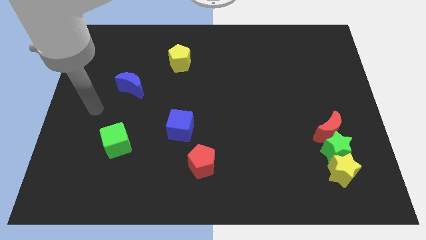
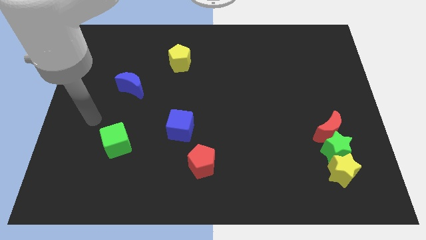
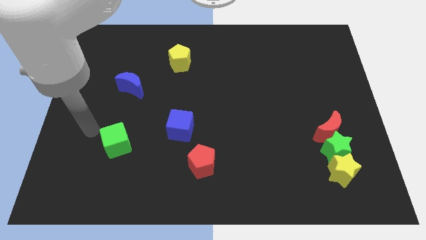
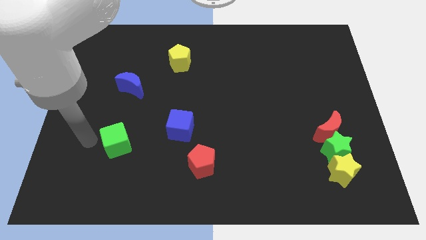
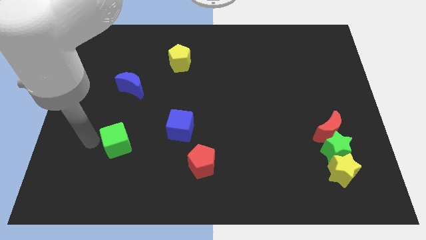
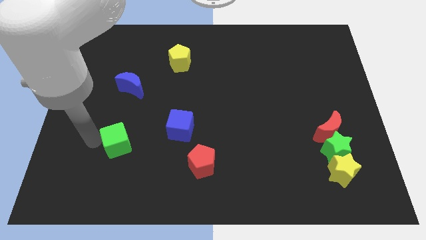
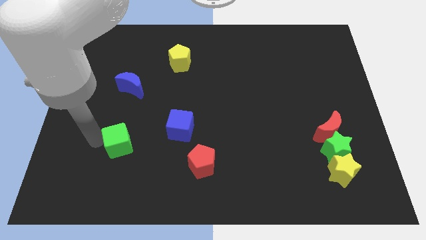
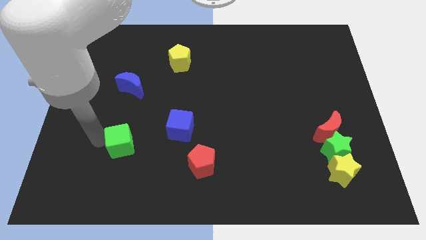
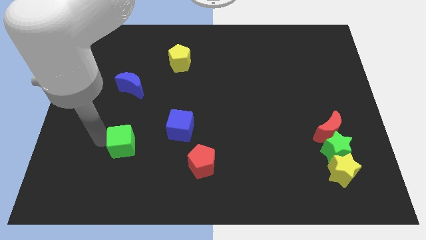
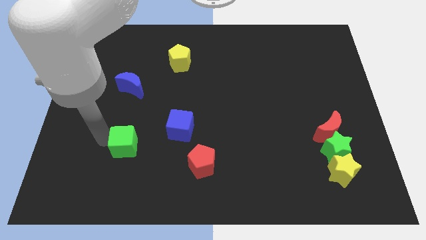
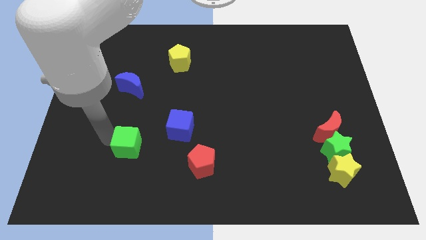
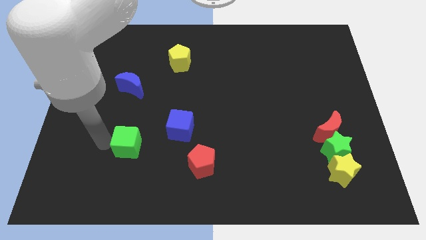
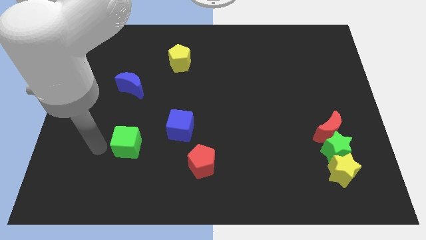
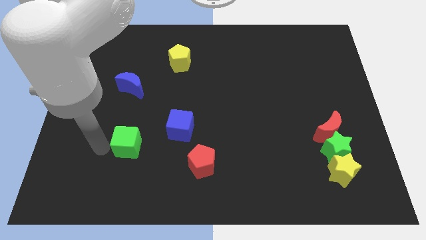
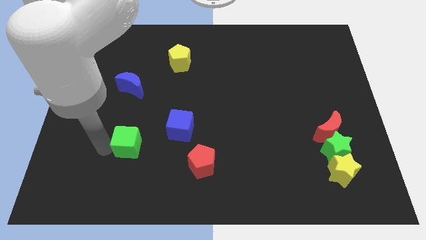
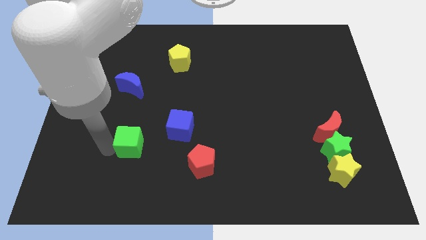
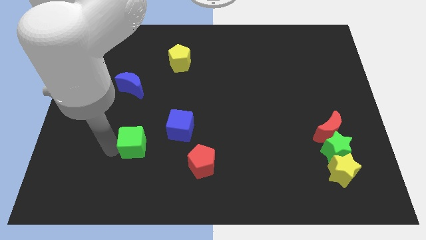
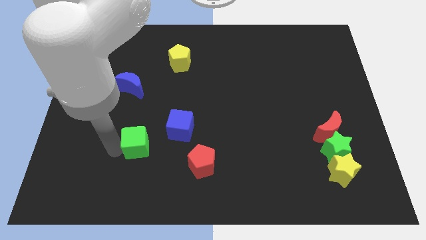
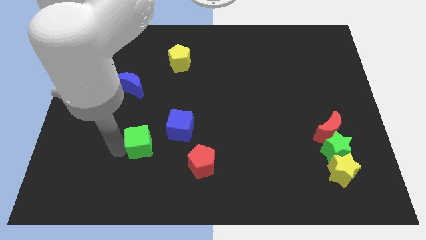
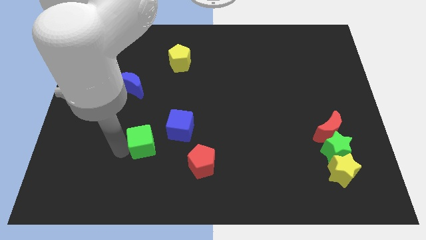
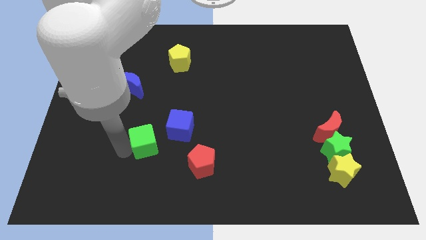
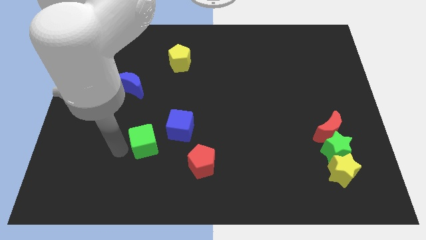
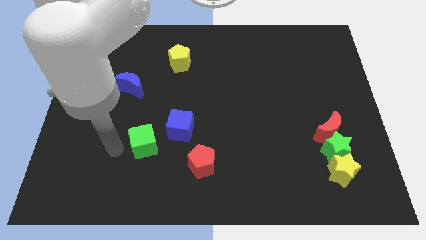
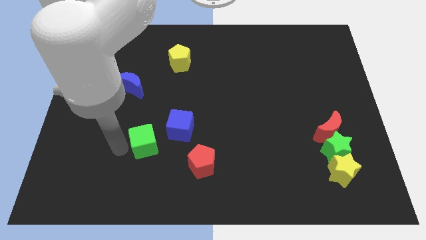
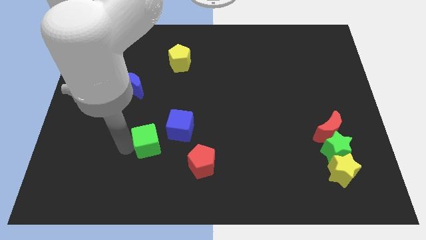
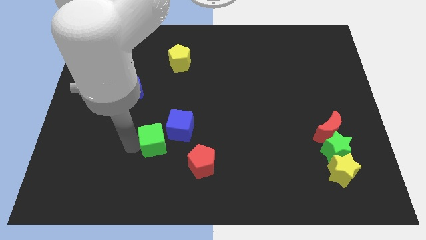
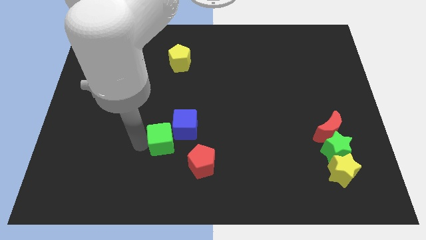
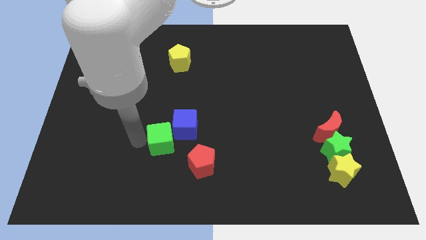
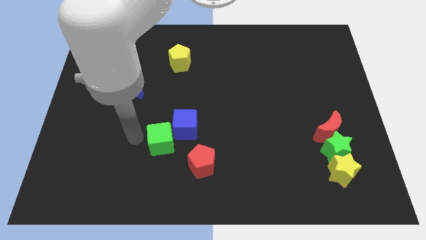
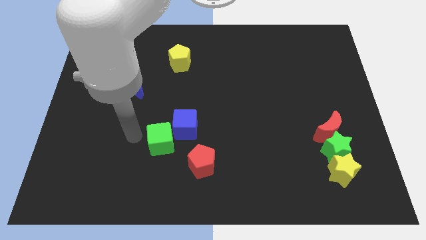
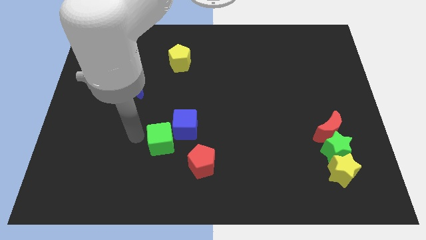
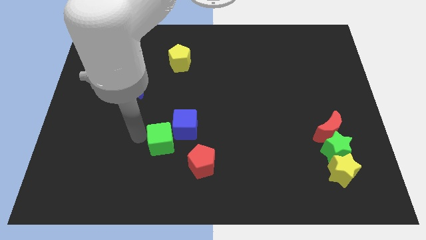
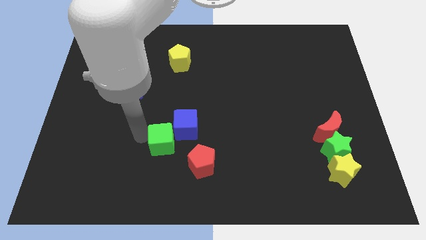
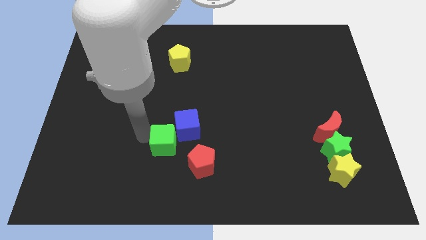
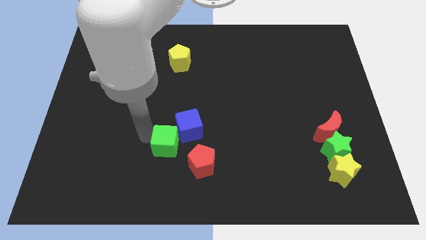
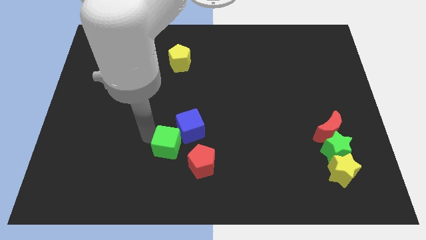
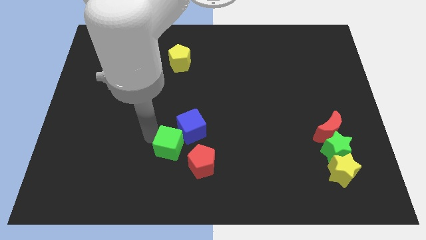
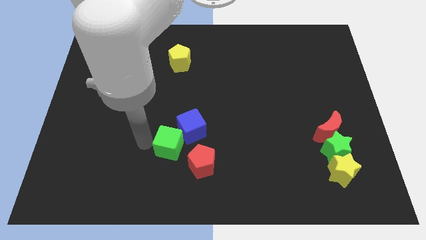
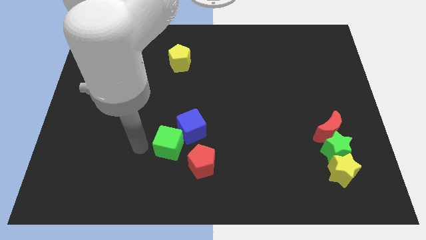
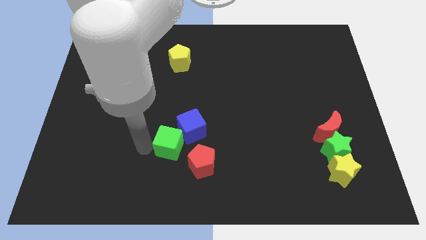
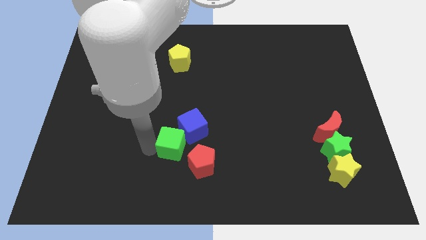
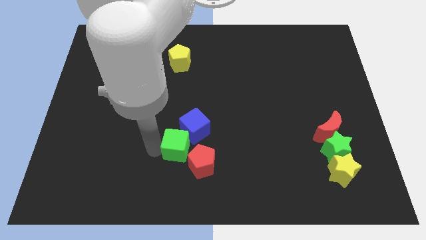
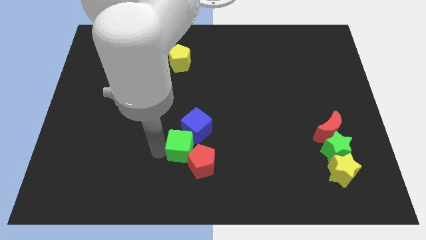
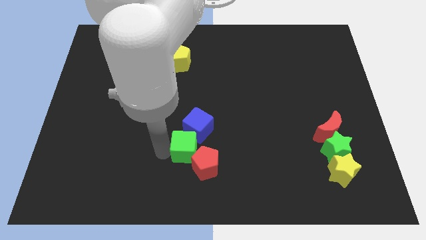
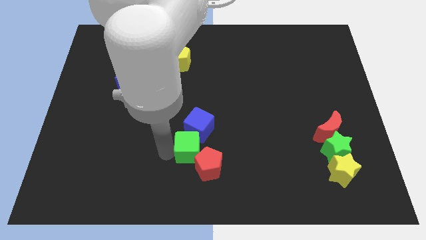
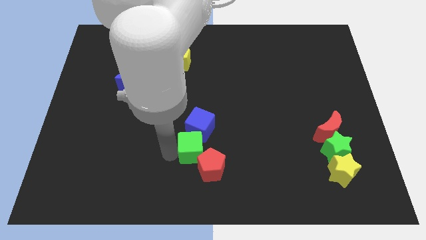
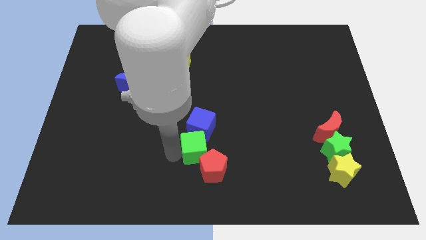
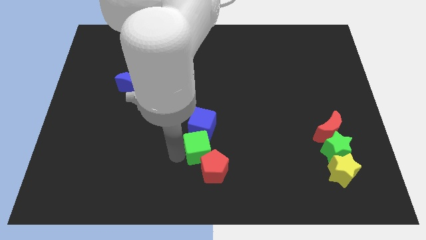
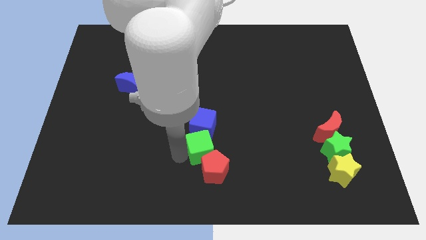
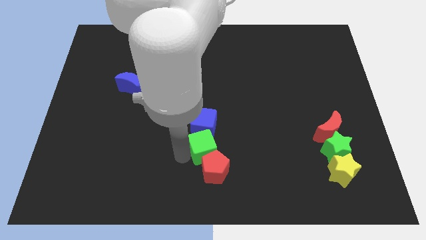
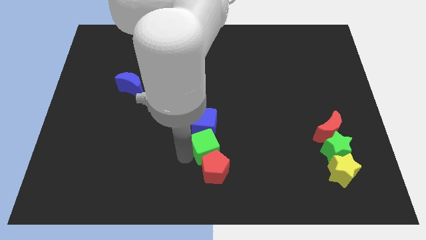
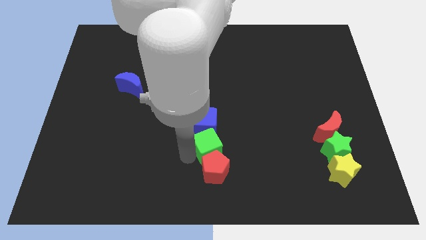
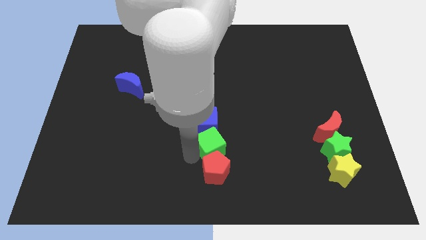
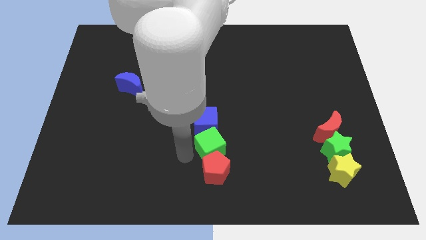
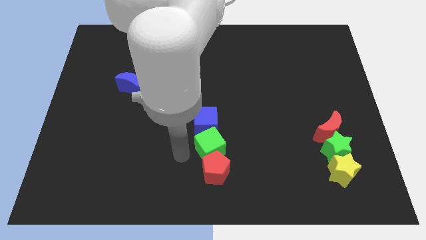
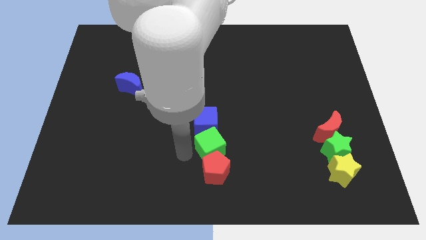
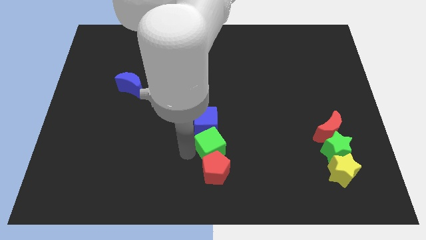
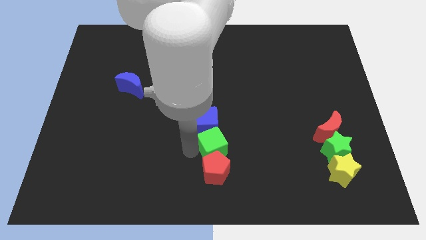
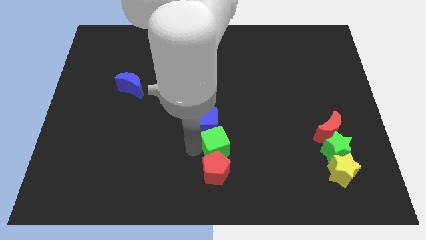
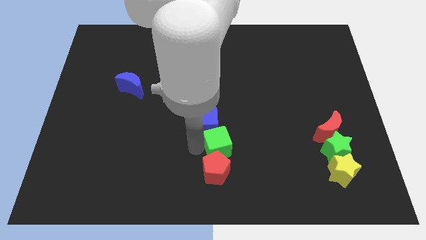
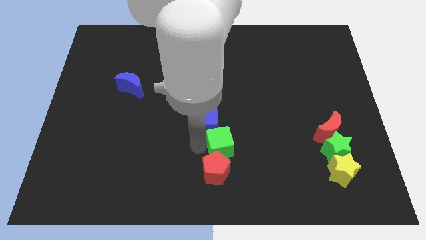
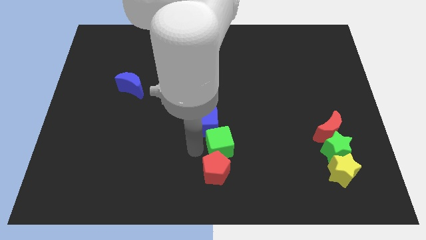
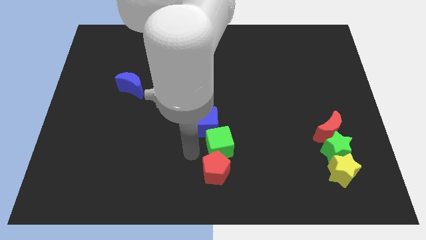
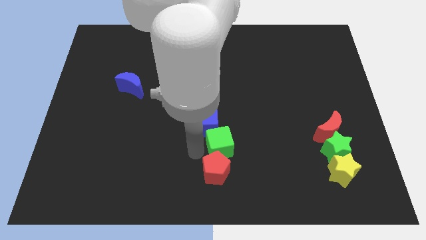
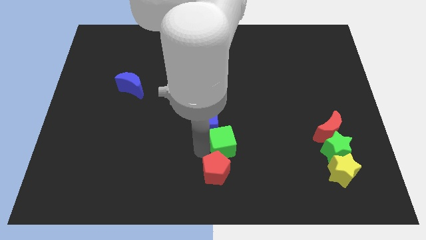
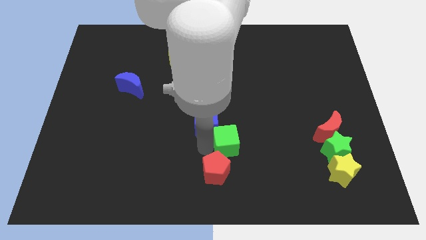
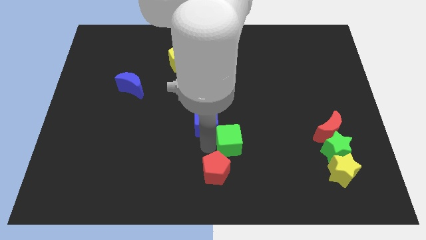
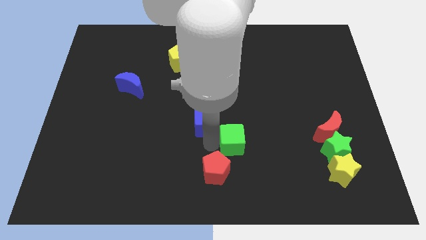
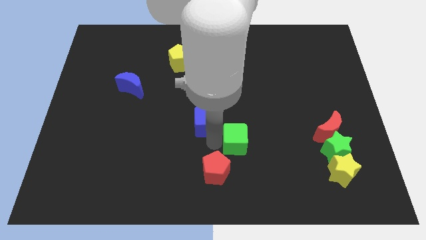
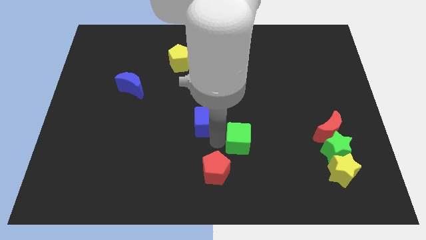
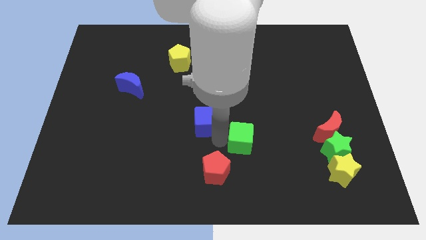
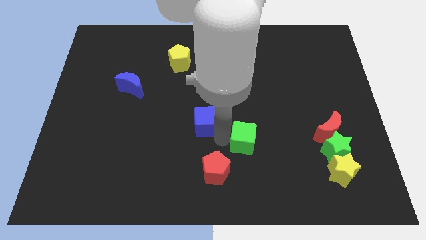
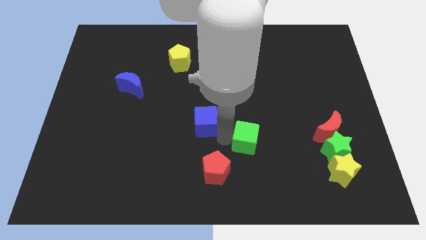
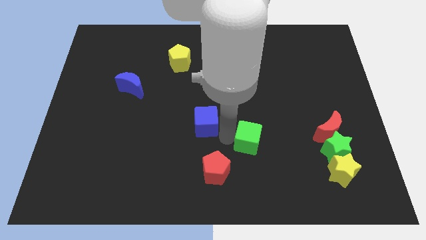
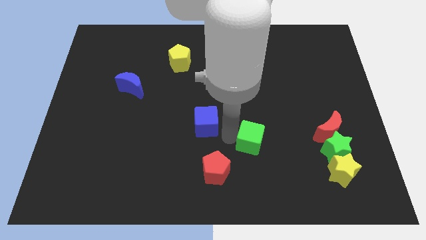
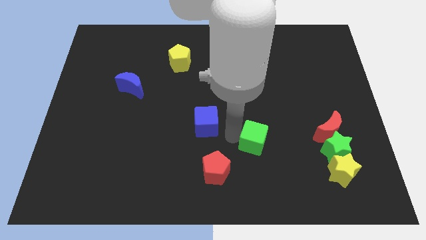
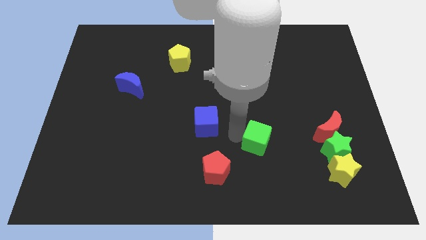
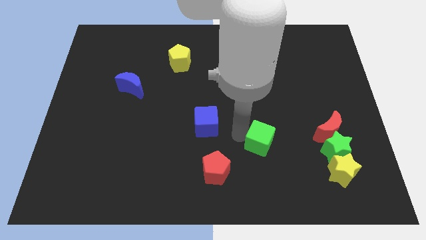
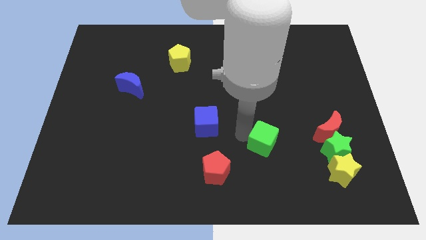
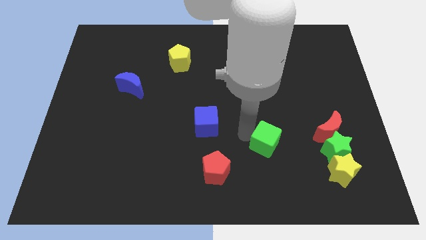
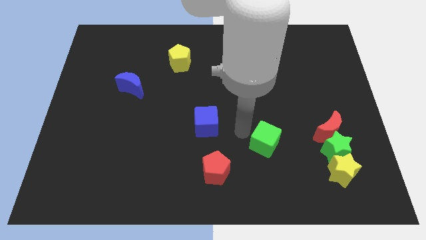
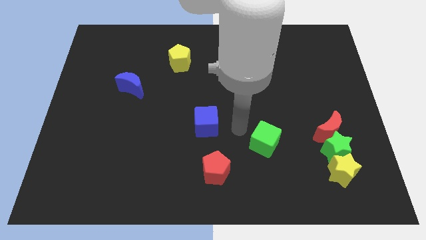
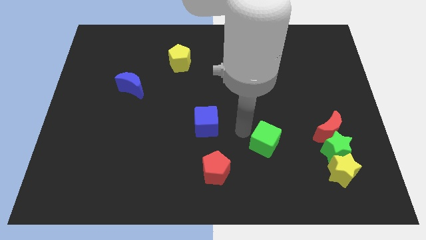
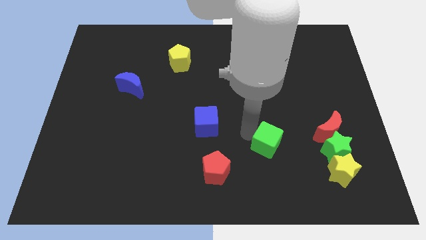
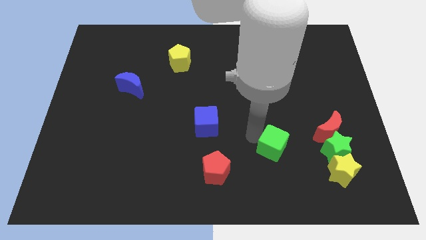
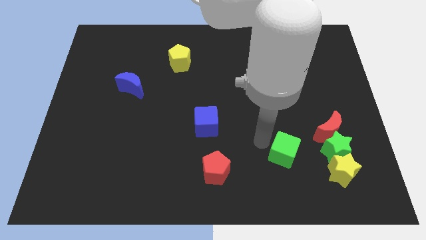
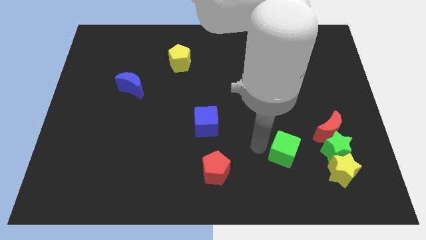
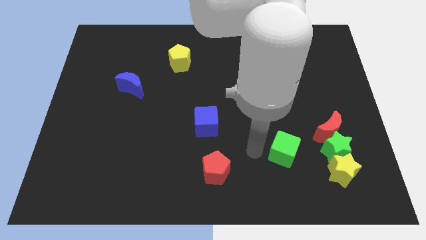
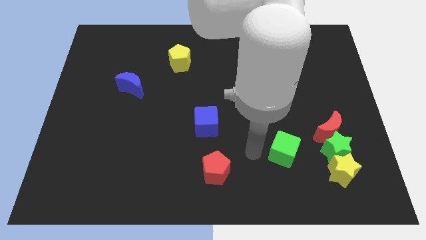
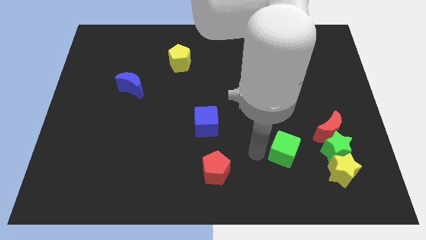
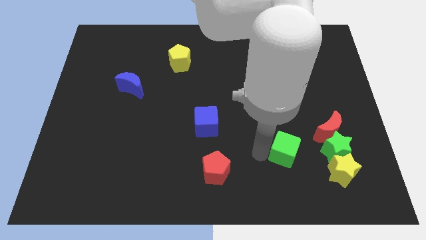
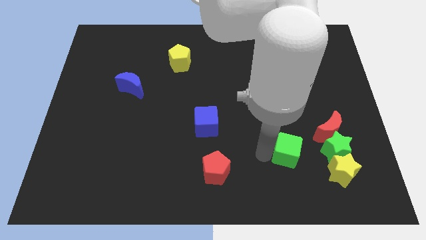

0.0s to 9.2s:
push the green cube to the top left of the yellow star
